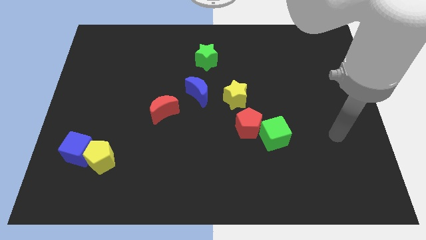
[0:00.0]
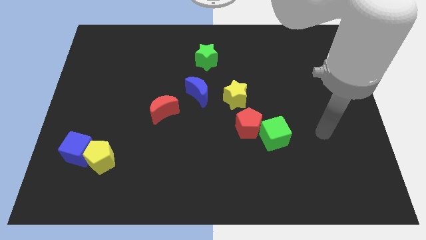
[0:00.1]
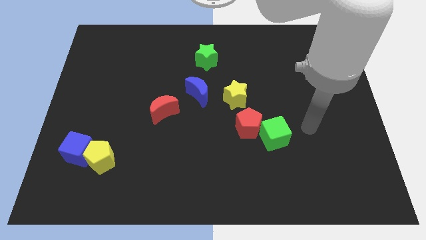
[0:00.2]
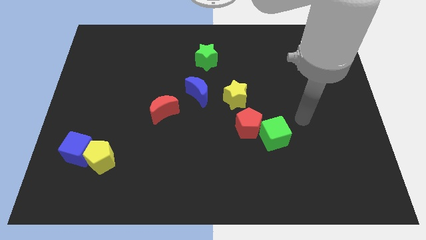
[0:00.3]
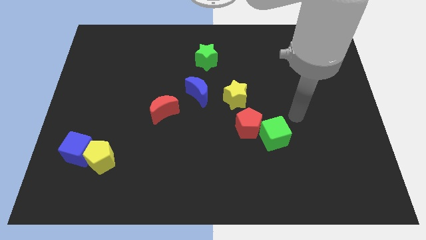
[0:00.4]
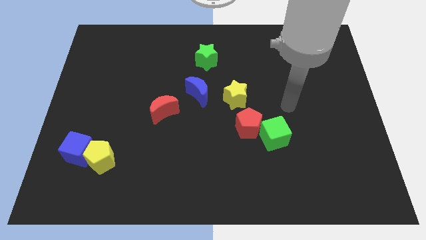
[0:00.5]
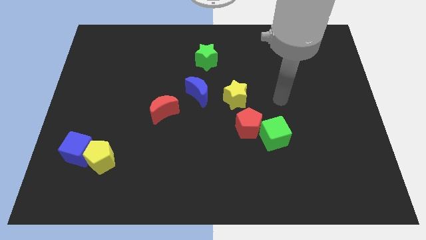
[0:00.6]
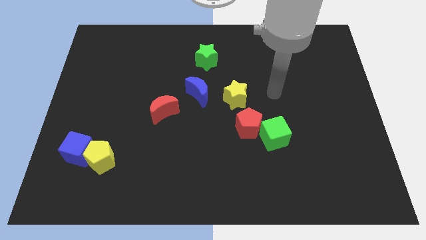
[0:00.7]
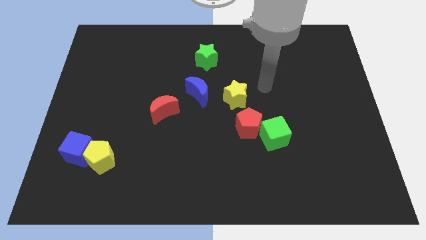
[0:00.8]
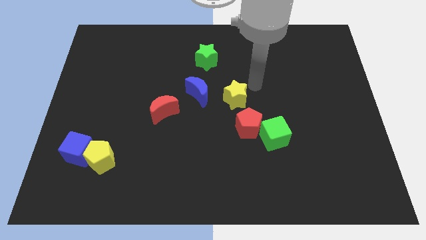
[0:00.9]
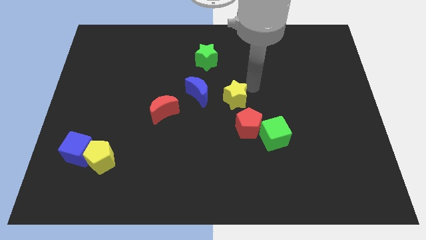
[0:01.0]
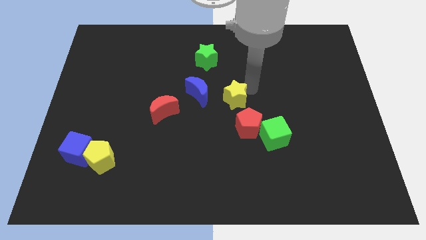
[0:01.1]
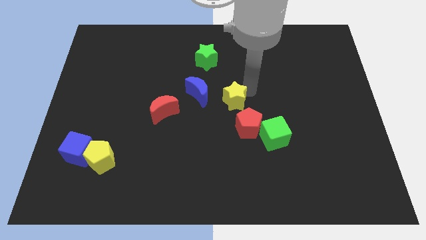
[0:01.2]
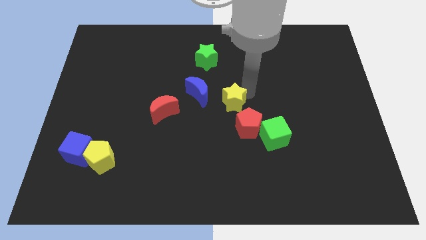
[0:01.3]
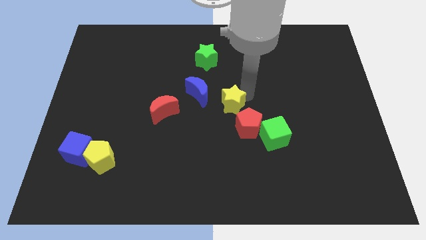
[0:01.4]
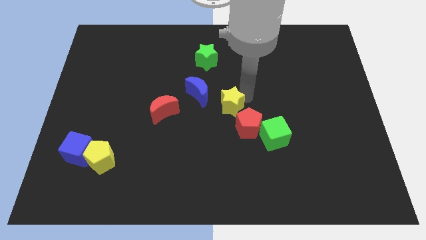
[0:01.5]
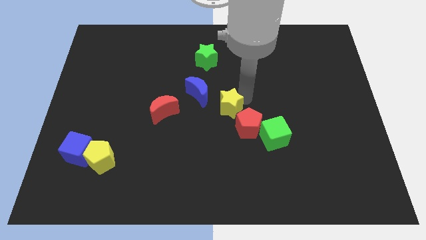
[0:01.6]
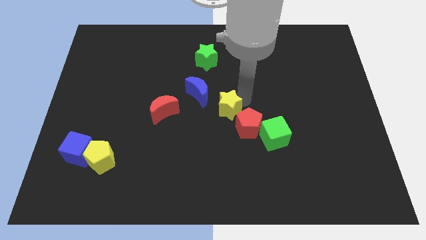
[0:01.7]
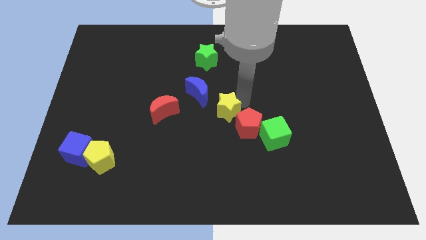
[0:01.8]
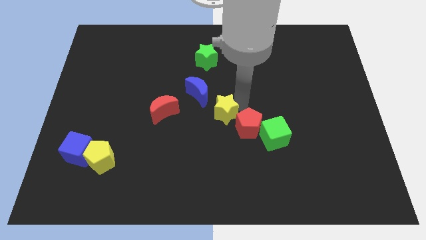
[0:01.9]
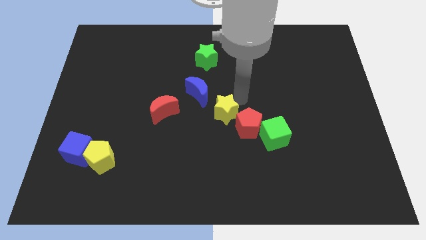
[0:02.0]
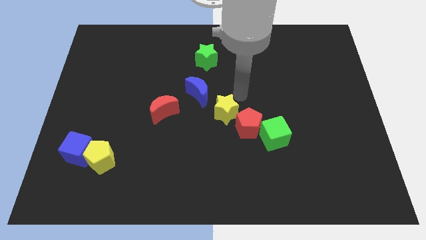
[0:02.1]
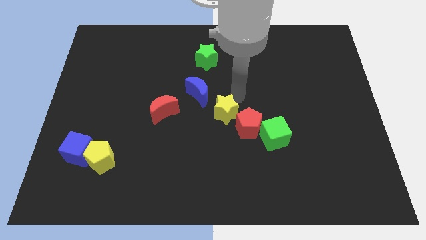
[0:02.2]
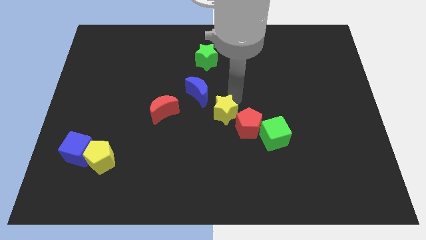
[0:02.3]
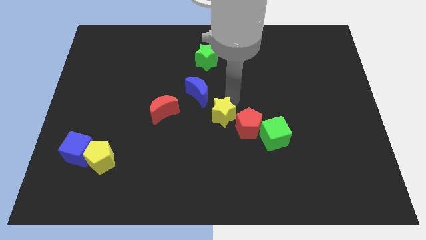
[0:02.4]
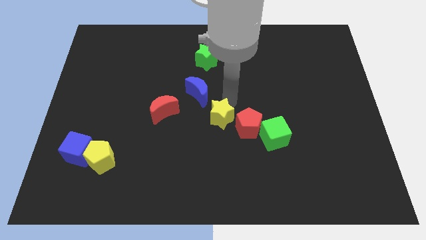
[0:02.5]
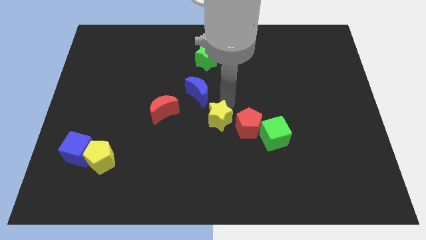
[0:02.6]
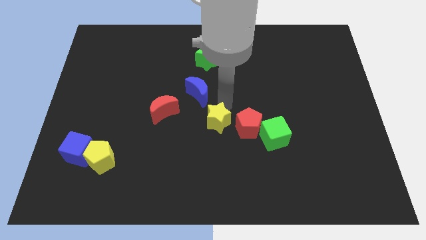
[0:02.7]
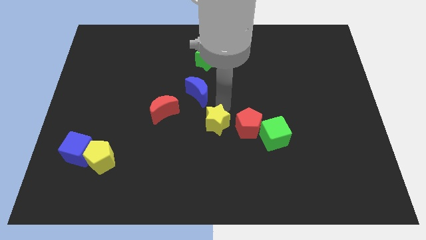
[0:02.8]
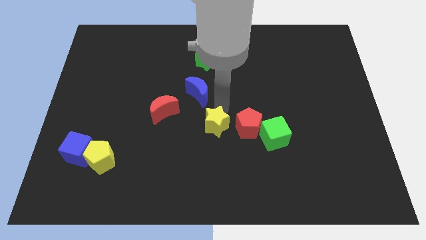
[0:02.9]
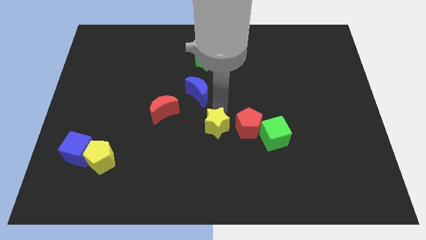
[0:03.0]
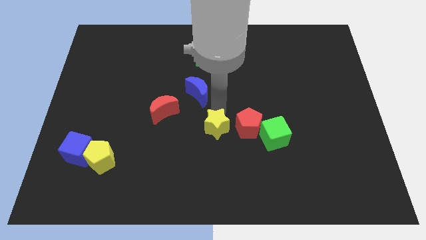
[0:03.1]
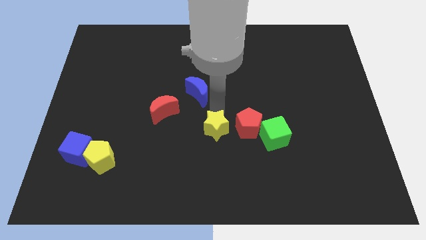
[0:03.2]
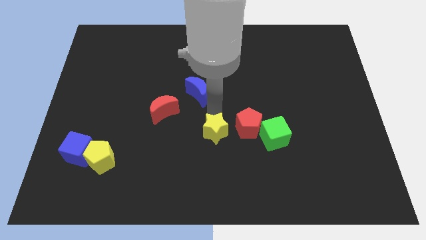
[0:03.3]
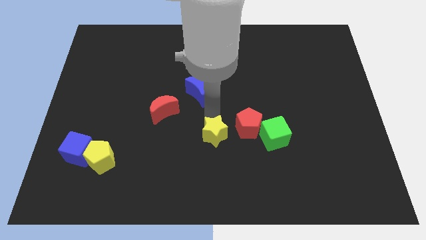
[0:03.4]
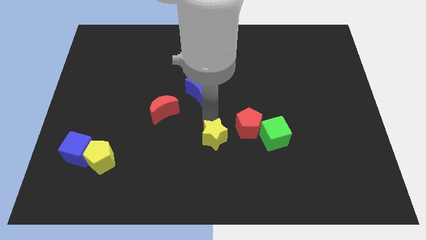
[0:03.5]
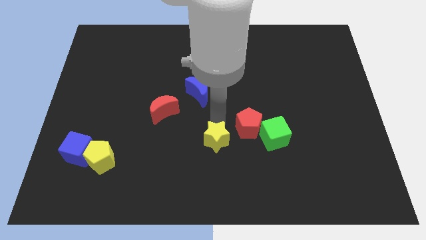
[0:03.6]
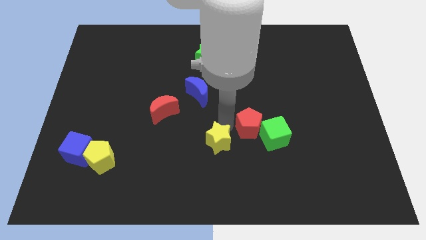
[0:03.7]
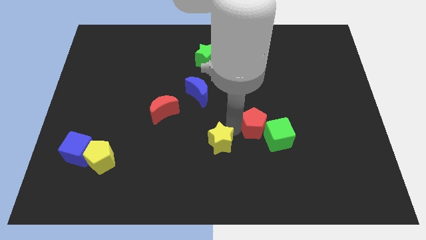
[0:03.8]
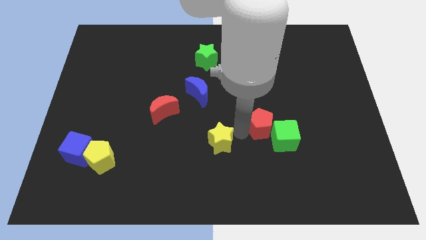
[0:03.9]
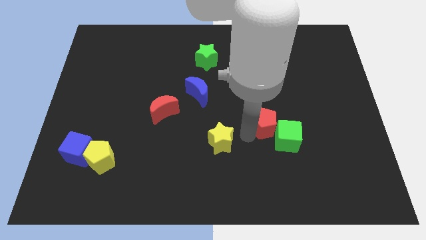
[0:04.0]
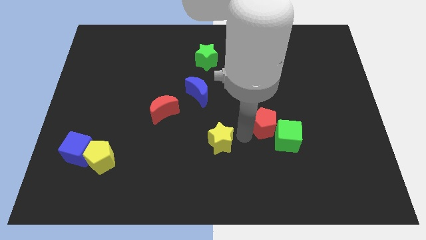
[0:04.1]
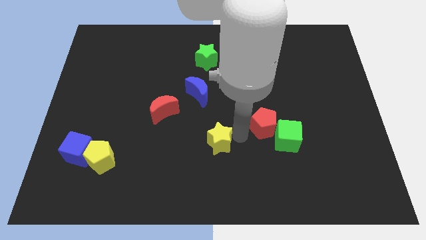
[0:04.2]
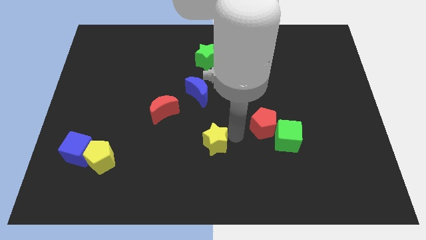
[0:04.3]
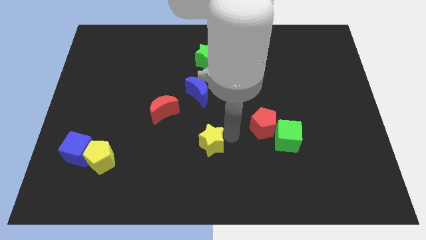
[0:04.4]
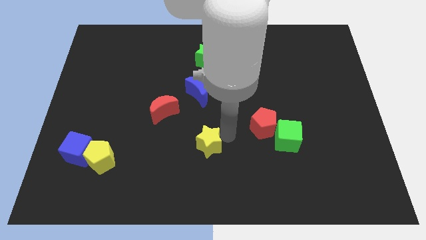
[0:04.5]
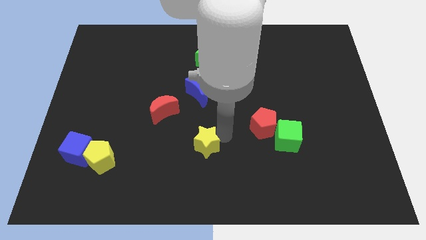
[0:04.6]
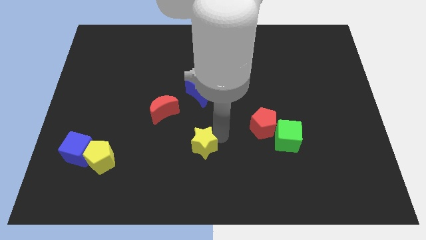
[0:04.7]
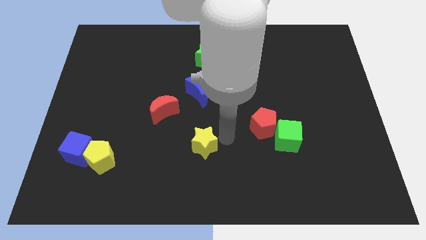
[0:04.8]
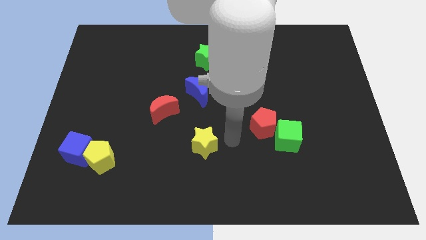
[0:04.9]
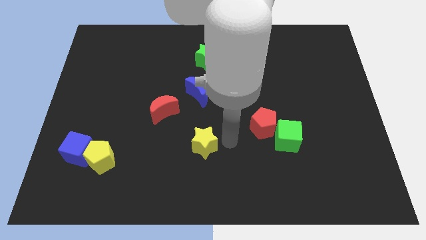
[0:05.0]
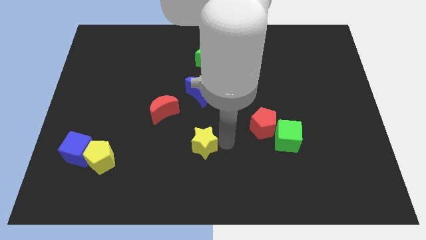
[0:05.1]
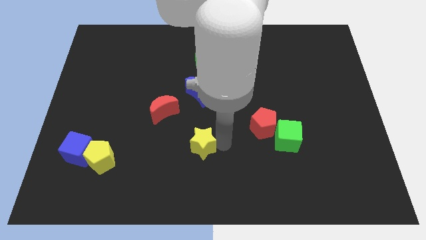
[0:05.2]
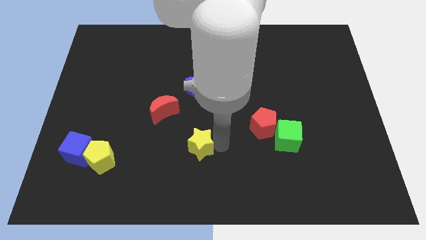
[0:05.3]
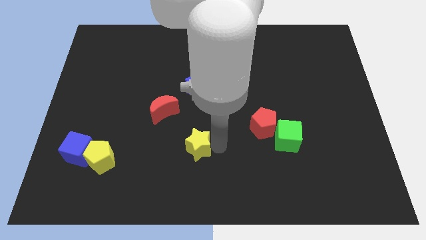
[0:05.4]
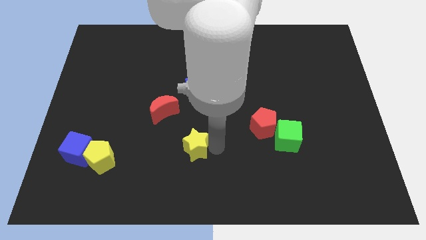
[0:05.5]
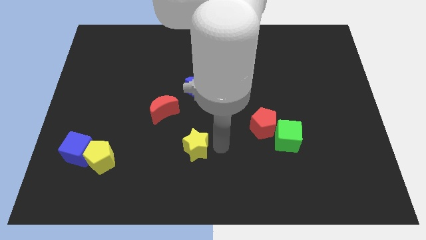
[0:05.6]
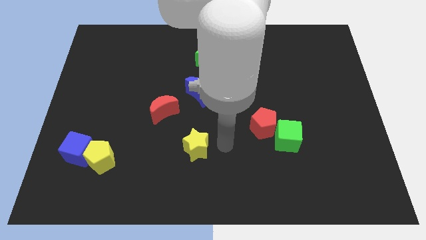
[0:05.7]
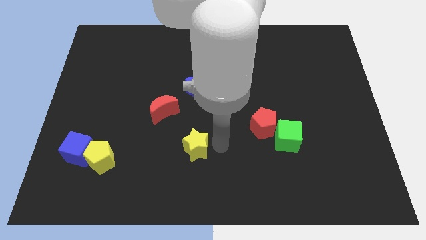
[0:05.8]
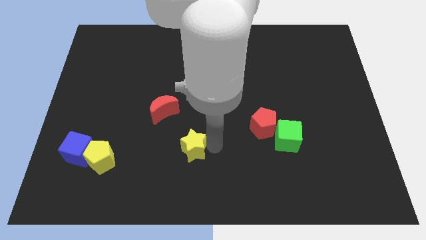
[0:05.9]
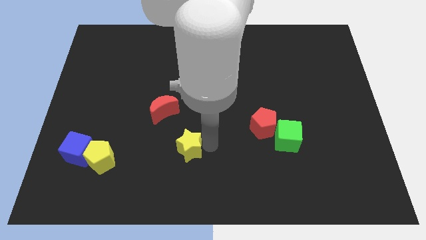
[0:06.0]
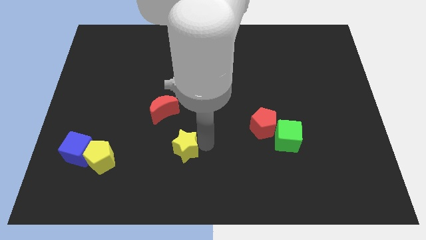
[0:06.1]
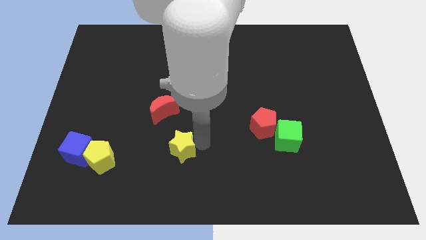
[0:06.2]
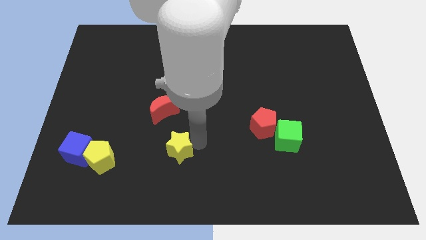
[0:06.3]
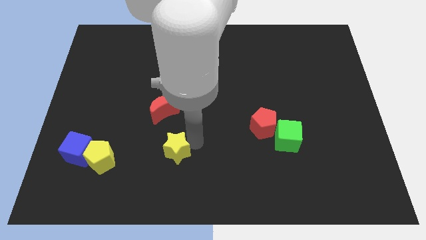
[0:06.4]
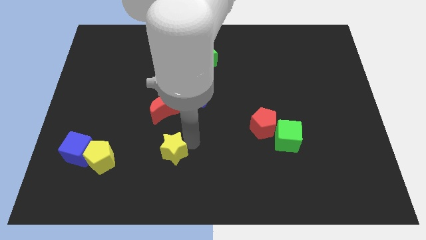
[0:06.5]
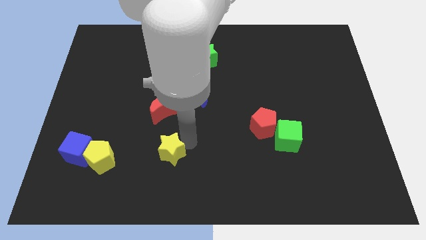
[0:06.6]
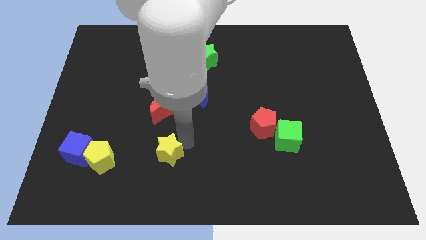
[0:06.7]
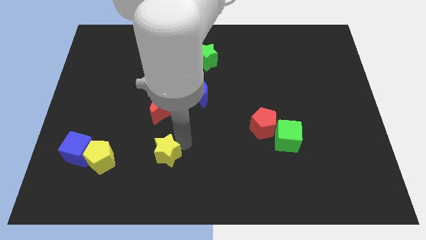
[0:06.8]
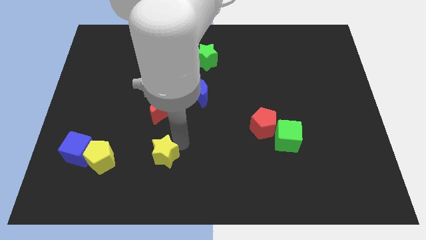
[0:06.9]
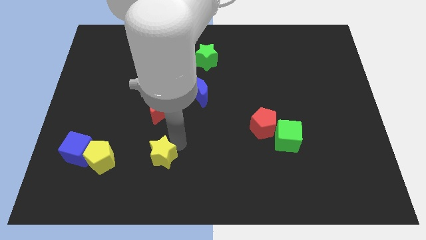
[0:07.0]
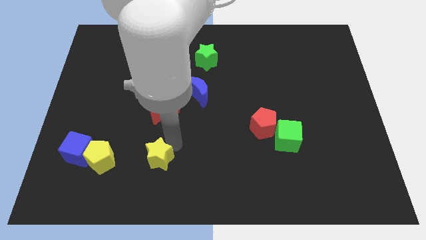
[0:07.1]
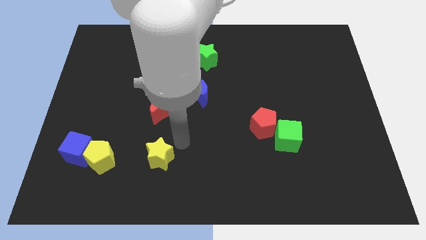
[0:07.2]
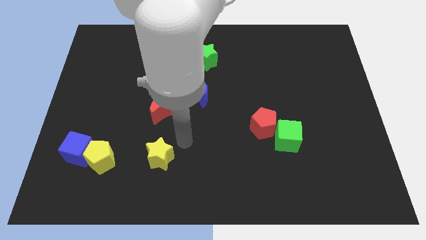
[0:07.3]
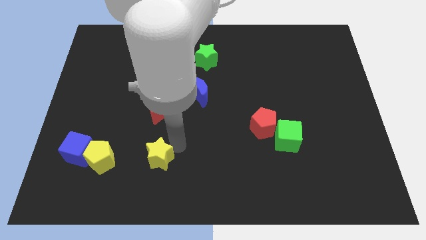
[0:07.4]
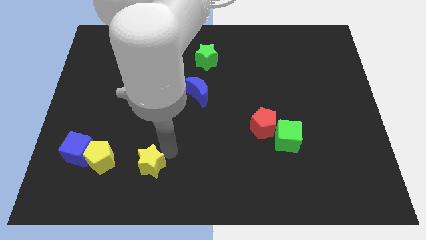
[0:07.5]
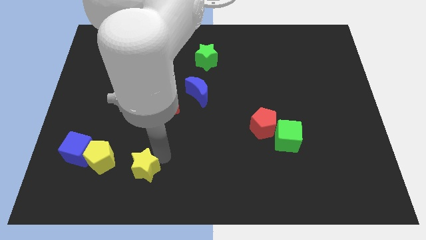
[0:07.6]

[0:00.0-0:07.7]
slide the yellow star to the bottom right side of the yellow pentagon
